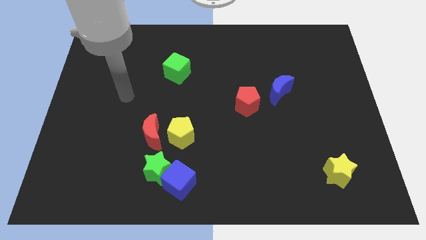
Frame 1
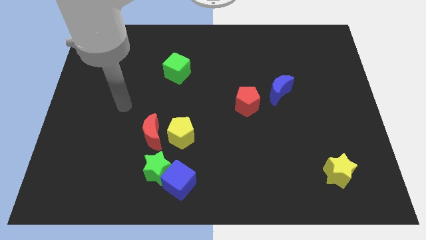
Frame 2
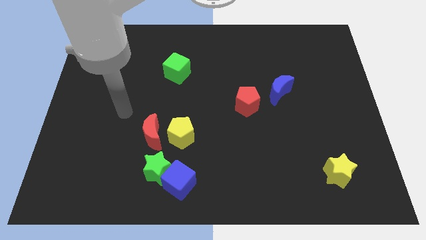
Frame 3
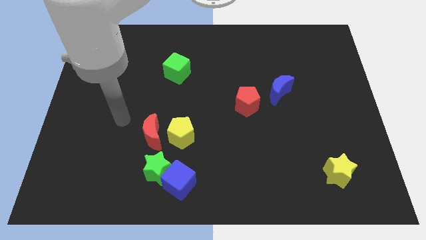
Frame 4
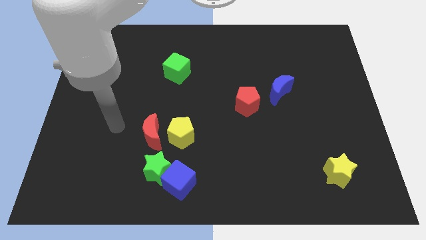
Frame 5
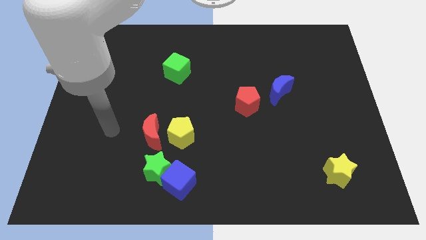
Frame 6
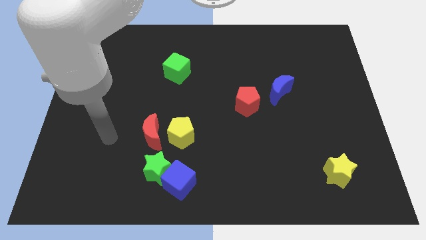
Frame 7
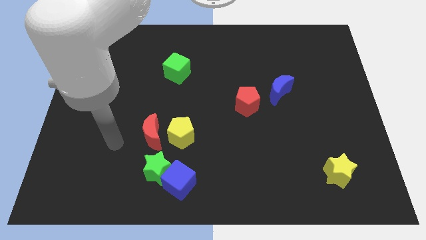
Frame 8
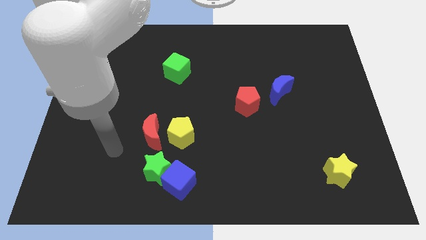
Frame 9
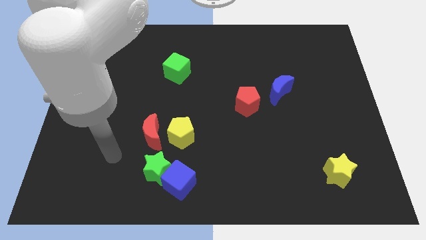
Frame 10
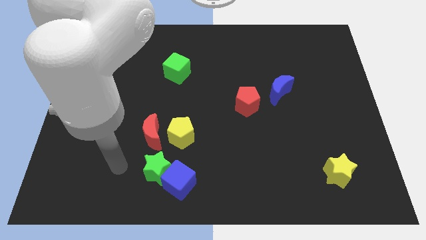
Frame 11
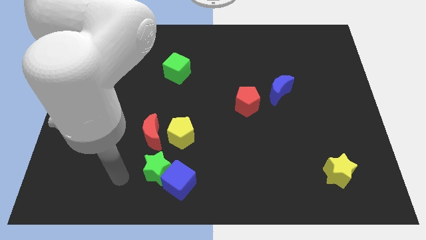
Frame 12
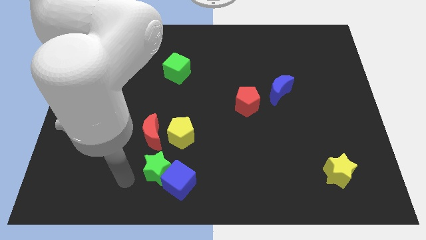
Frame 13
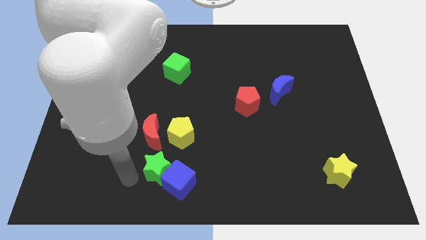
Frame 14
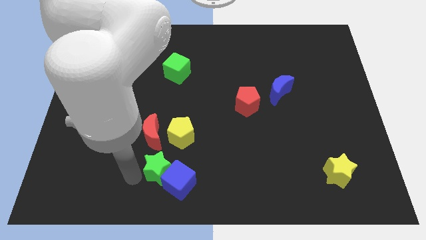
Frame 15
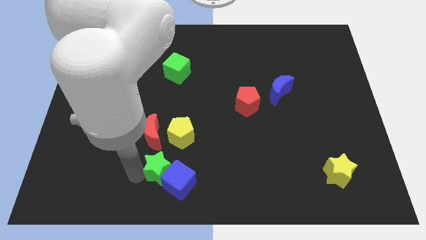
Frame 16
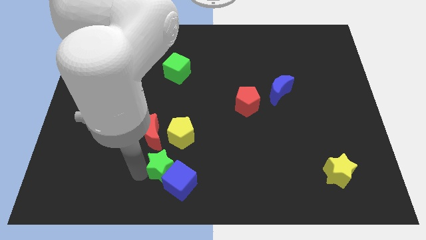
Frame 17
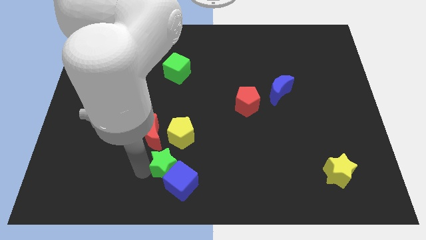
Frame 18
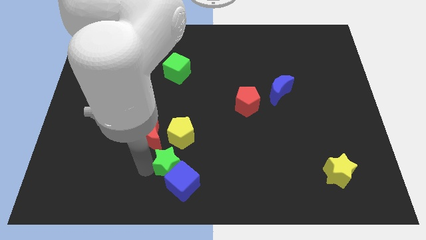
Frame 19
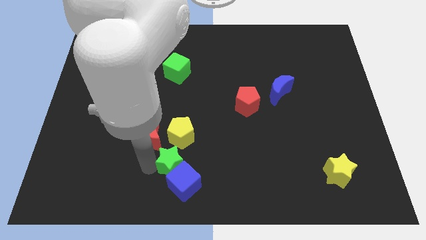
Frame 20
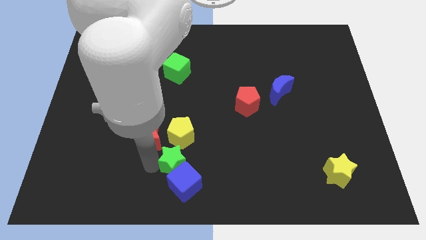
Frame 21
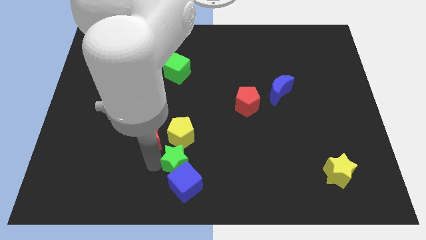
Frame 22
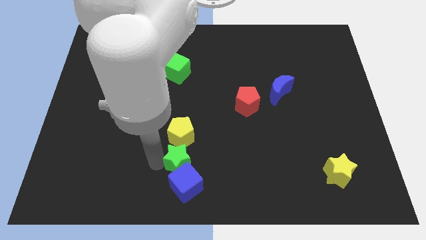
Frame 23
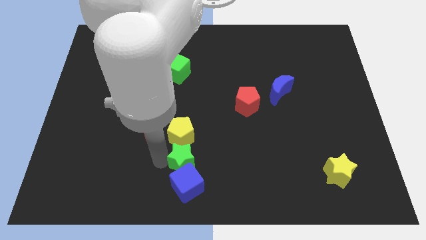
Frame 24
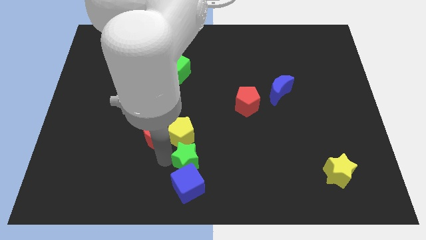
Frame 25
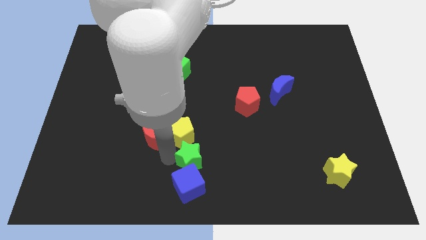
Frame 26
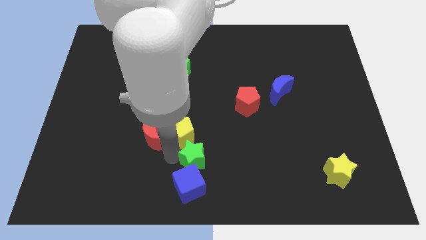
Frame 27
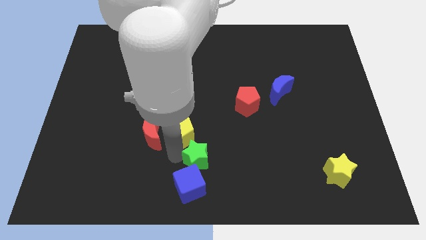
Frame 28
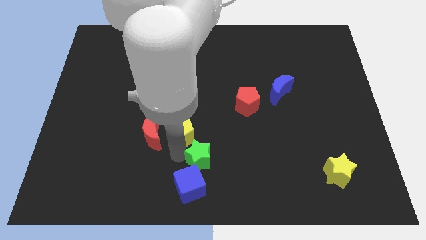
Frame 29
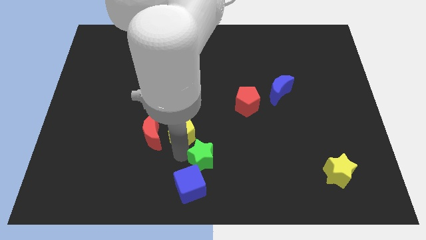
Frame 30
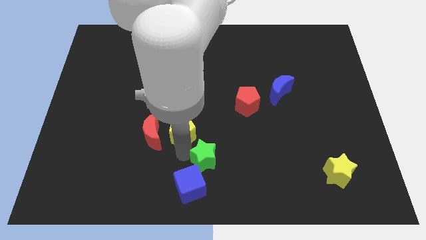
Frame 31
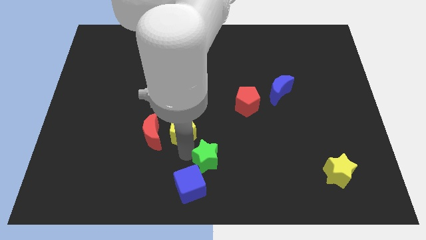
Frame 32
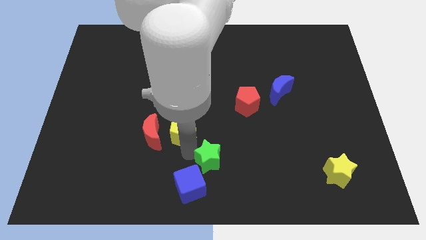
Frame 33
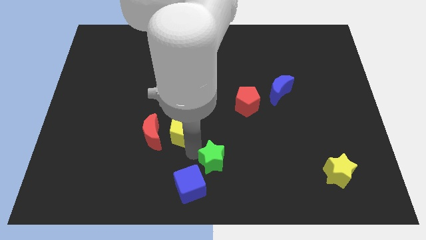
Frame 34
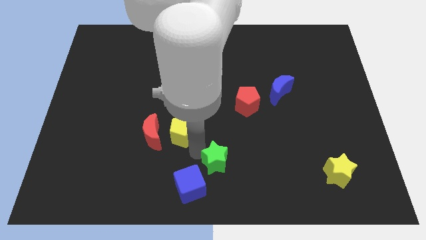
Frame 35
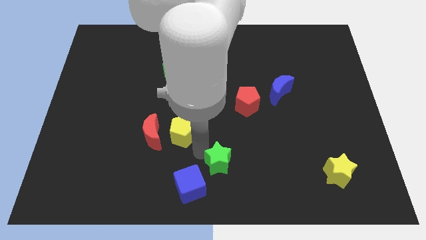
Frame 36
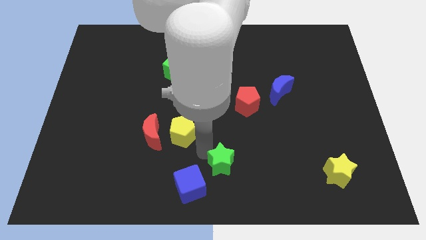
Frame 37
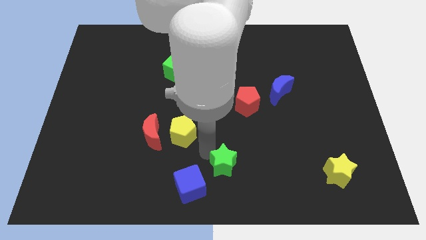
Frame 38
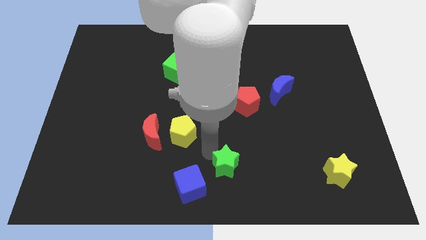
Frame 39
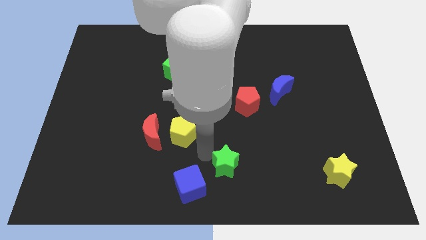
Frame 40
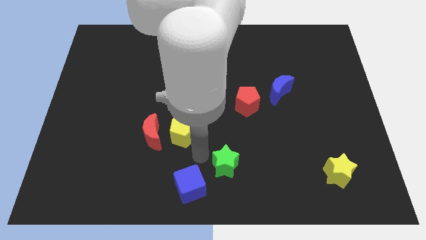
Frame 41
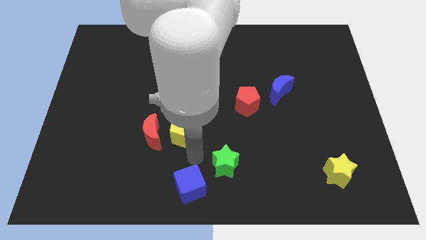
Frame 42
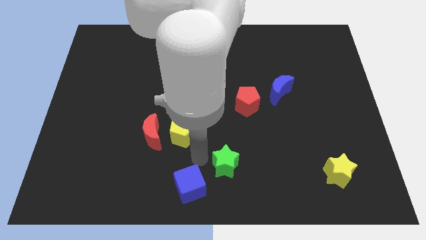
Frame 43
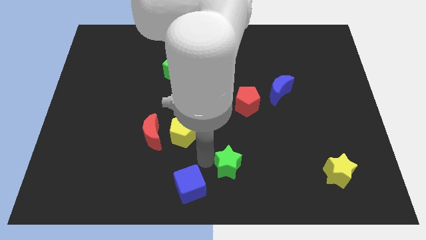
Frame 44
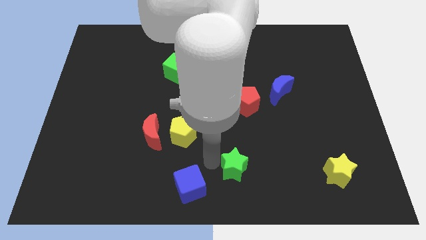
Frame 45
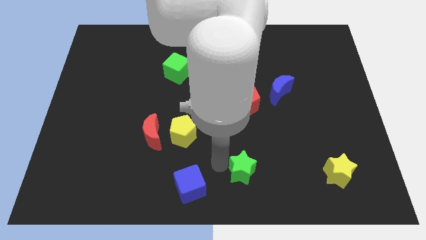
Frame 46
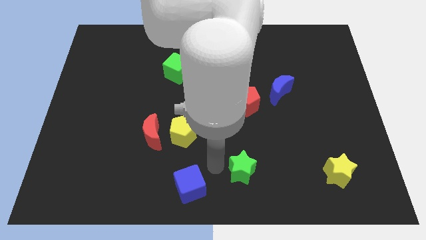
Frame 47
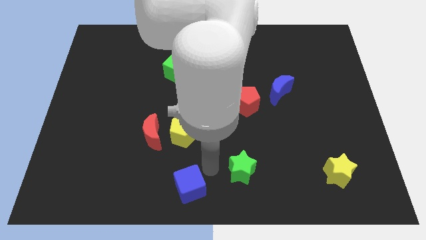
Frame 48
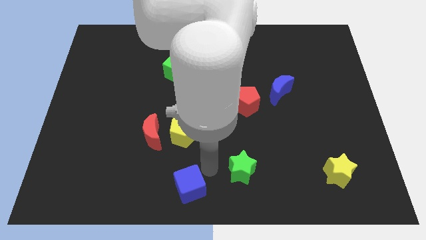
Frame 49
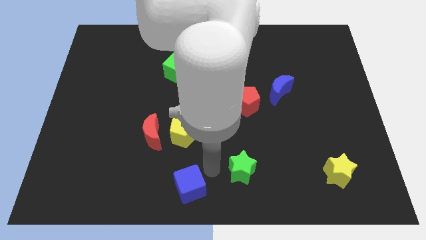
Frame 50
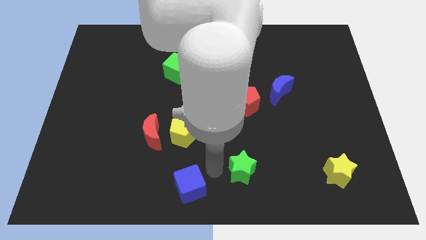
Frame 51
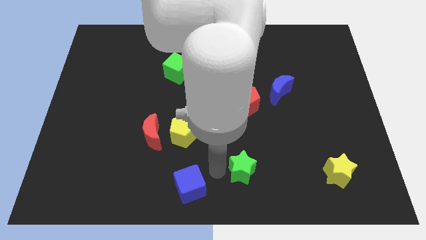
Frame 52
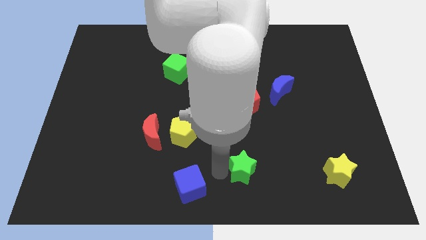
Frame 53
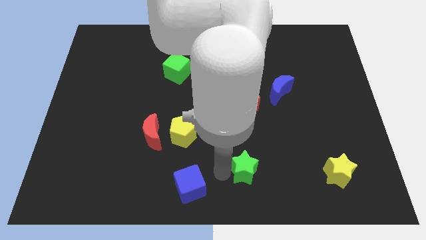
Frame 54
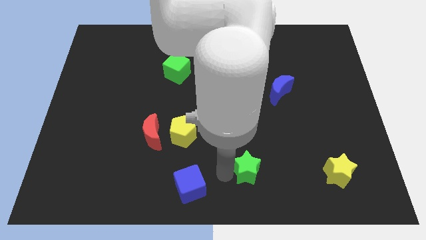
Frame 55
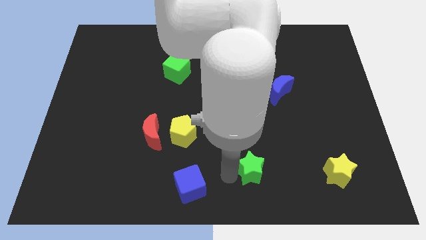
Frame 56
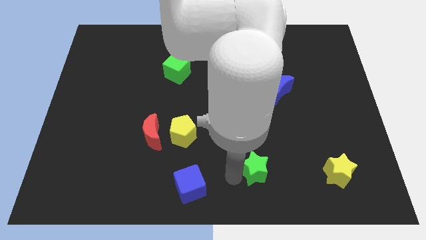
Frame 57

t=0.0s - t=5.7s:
move the green star to the right

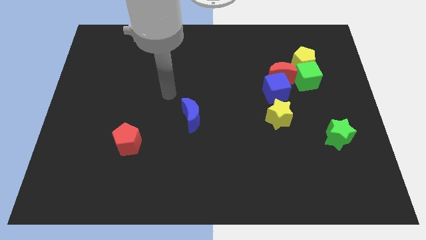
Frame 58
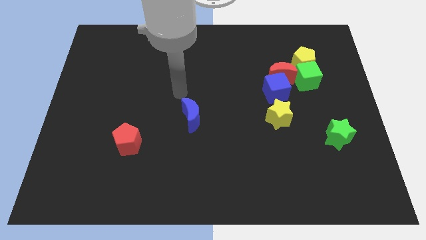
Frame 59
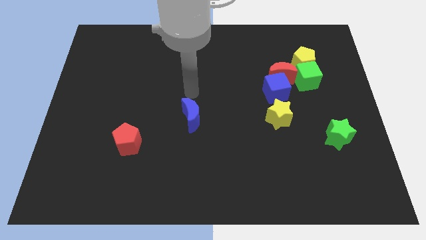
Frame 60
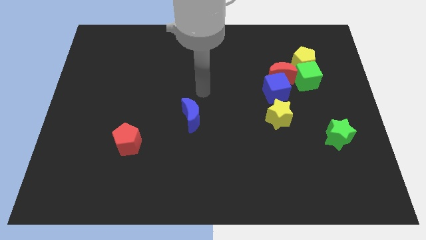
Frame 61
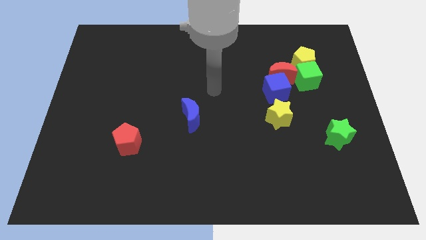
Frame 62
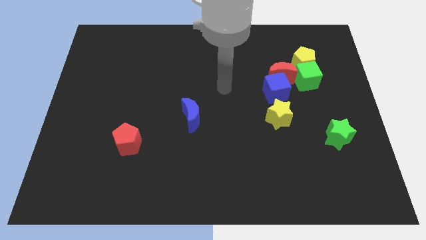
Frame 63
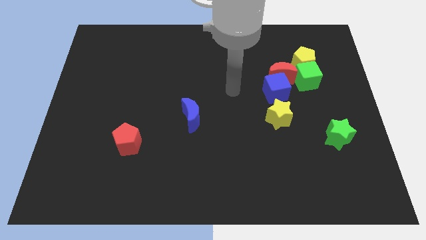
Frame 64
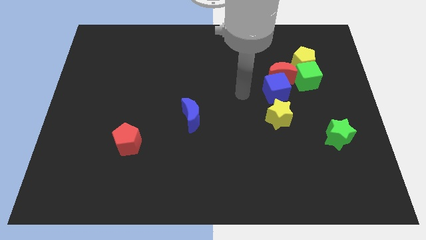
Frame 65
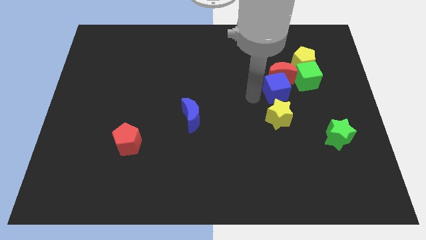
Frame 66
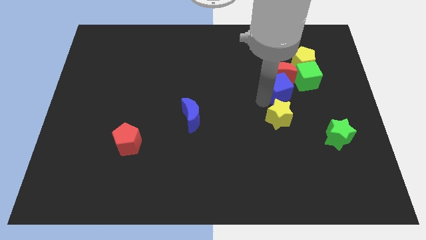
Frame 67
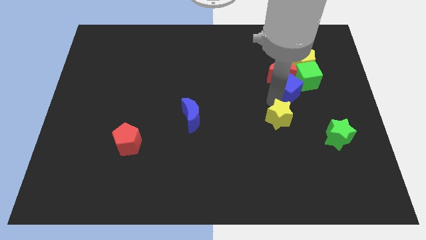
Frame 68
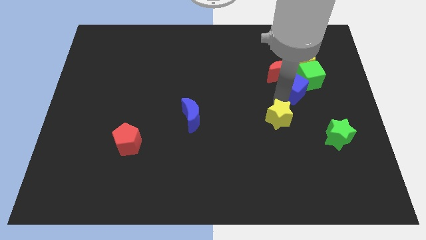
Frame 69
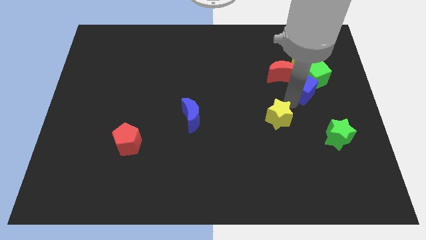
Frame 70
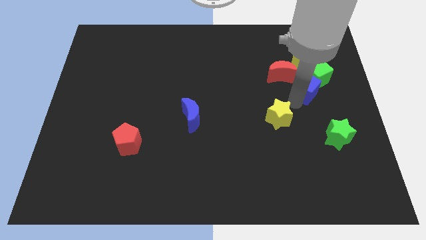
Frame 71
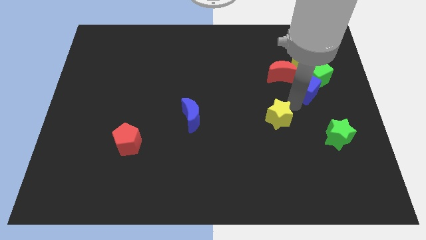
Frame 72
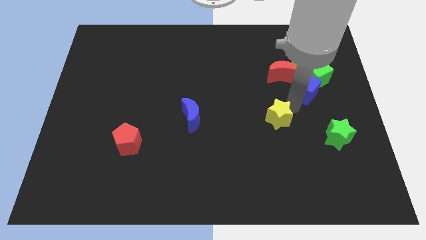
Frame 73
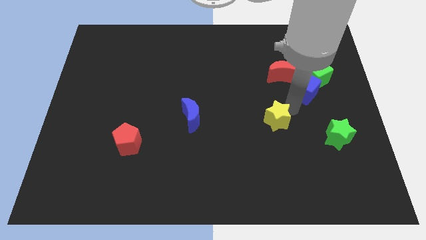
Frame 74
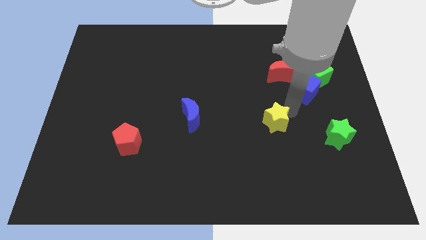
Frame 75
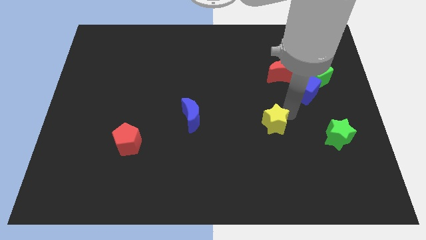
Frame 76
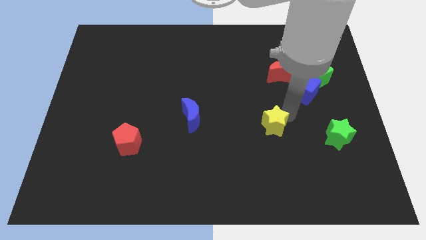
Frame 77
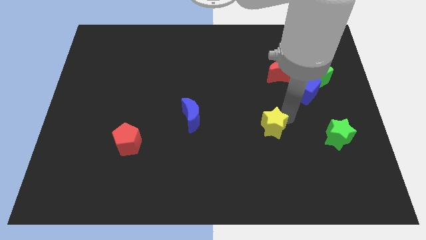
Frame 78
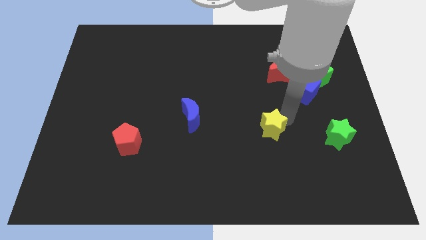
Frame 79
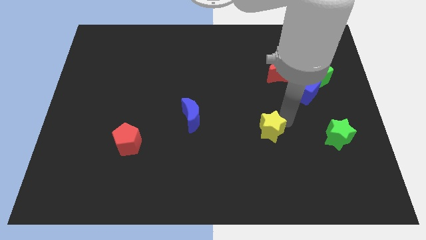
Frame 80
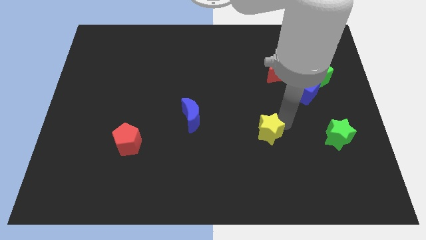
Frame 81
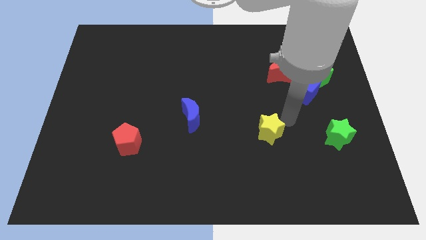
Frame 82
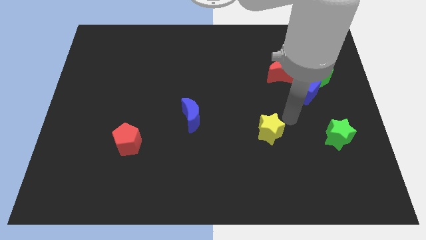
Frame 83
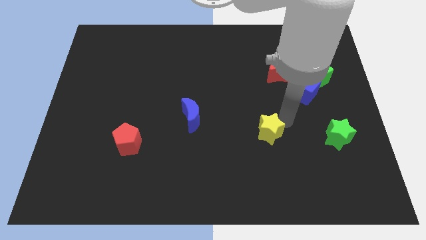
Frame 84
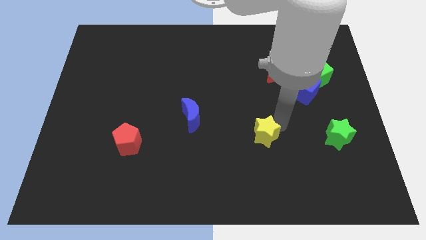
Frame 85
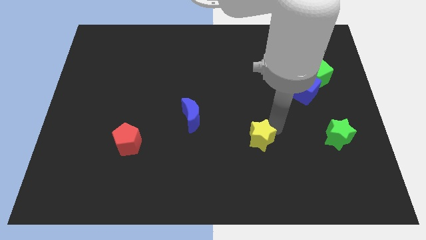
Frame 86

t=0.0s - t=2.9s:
slide the yellow star a bit diagonally down and to the left
